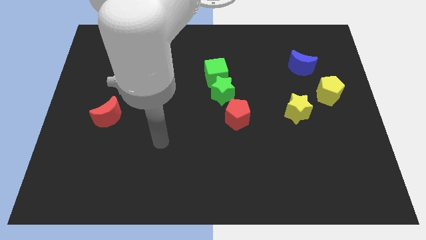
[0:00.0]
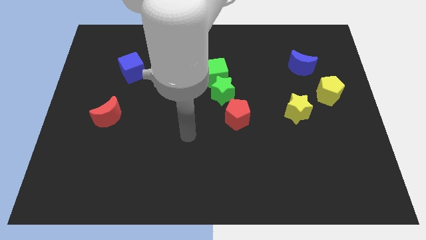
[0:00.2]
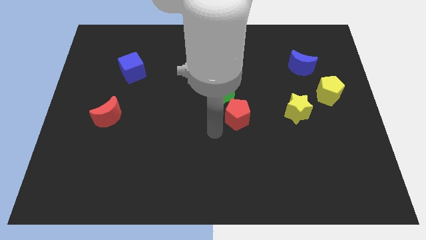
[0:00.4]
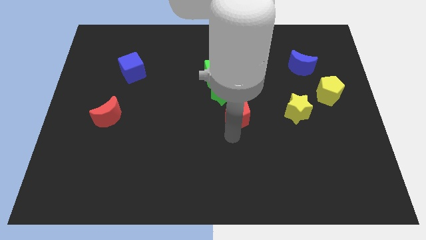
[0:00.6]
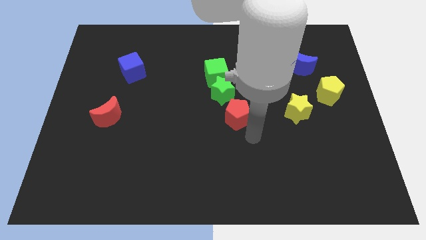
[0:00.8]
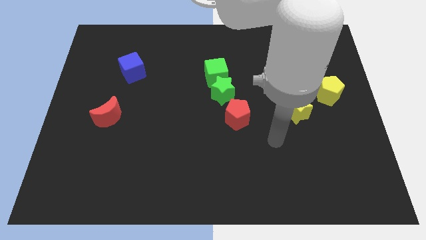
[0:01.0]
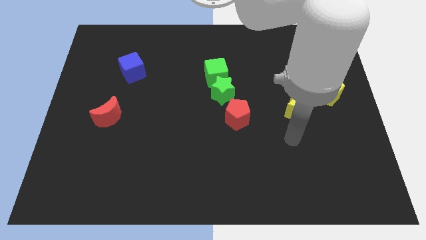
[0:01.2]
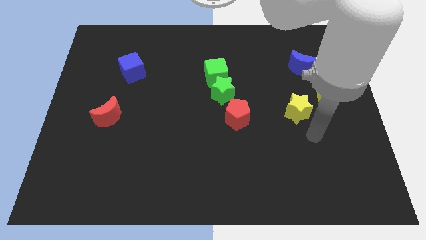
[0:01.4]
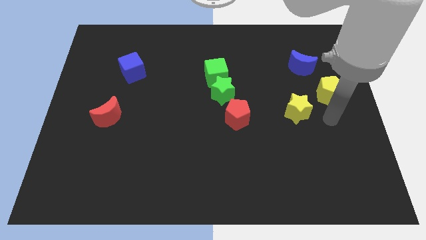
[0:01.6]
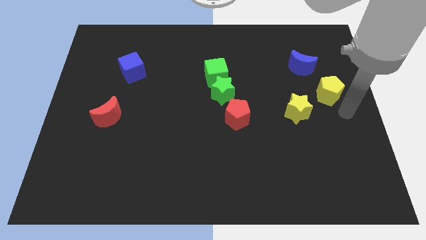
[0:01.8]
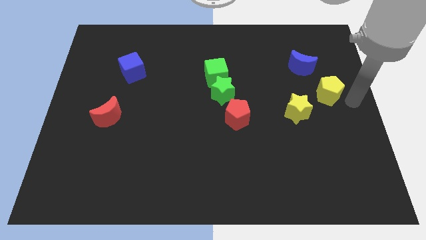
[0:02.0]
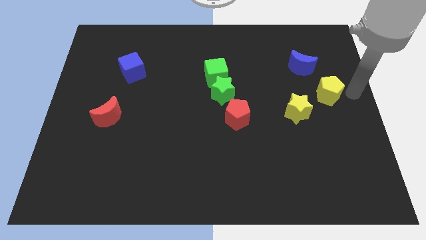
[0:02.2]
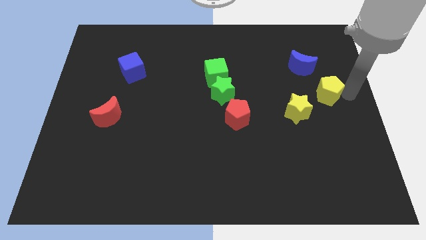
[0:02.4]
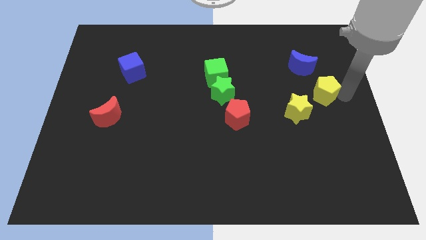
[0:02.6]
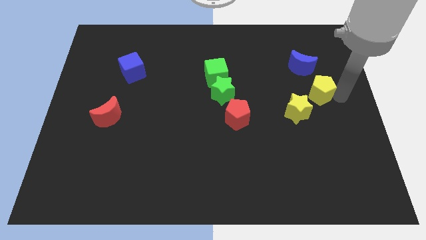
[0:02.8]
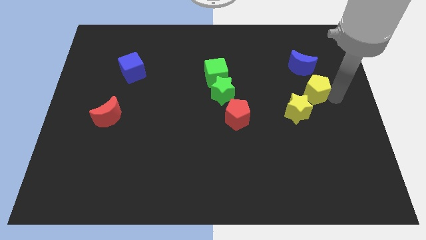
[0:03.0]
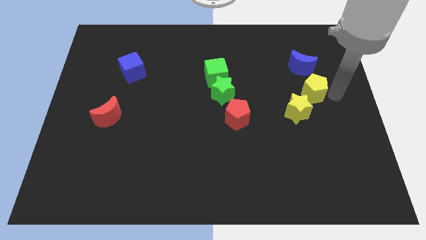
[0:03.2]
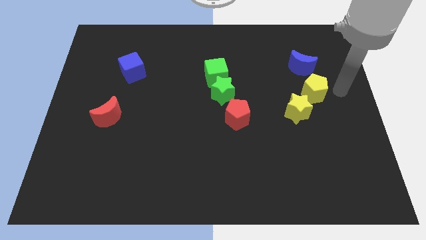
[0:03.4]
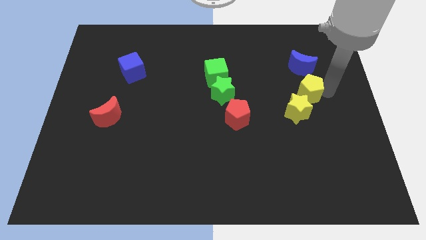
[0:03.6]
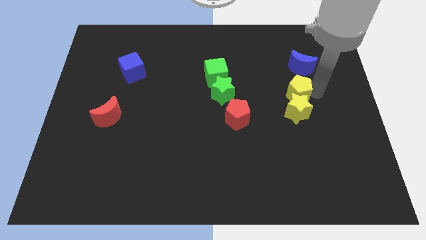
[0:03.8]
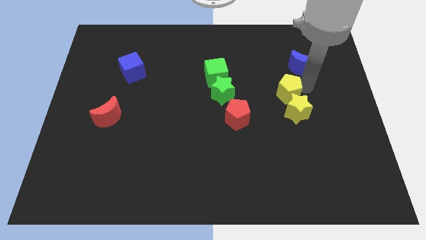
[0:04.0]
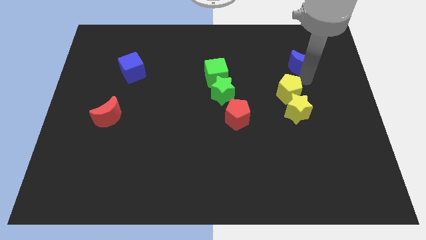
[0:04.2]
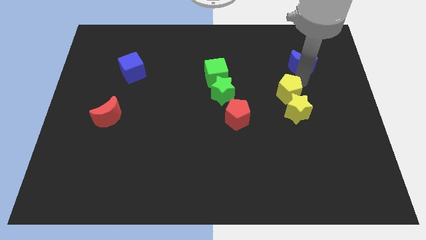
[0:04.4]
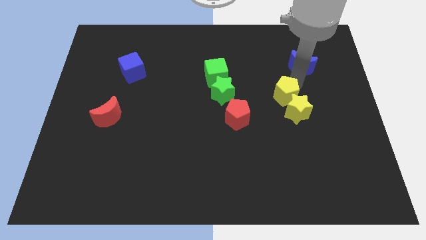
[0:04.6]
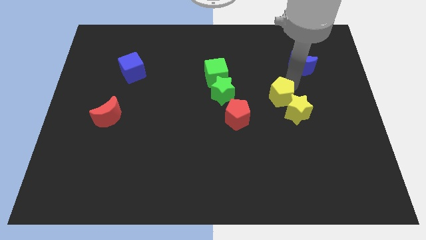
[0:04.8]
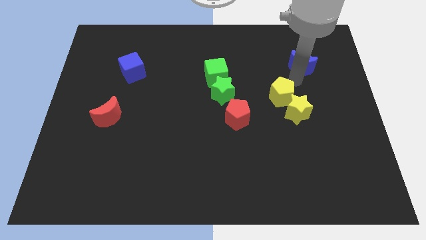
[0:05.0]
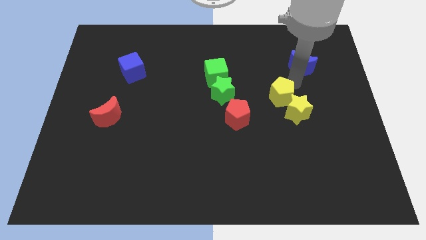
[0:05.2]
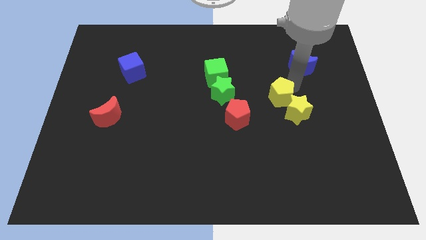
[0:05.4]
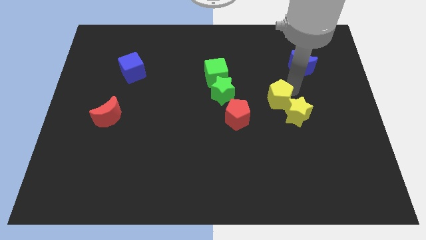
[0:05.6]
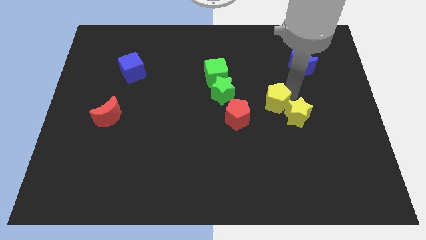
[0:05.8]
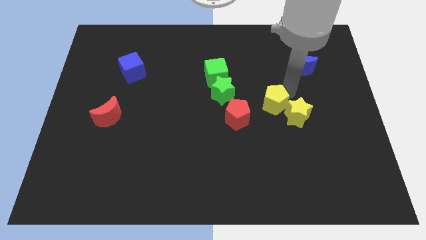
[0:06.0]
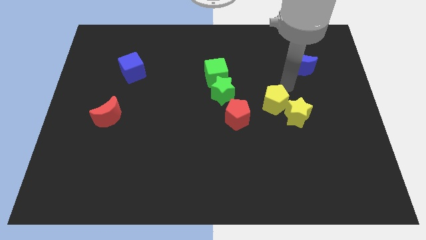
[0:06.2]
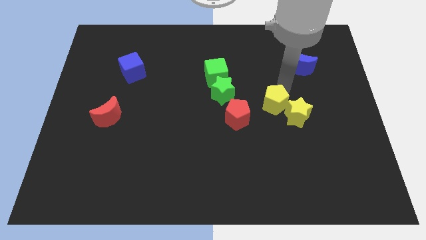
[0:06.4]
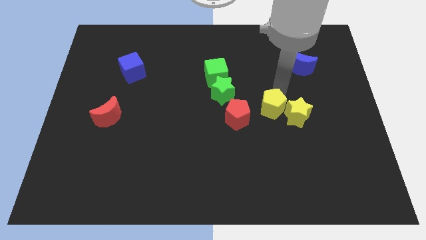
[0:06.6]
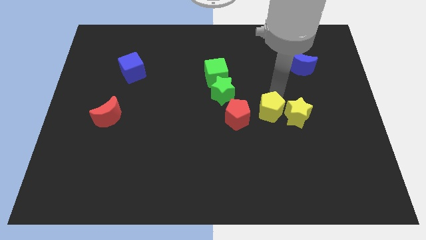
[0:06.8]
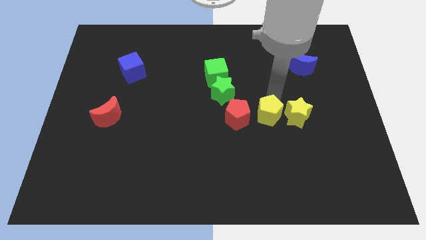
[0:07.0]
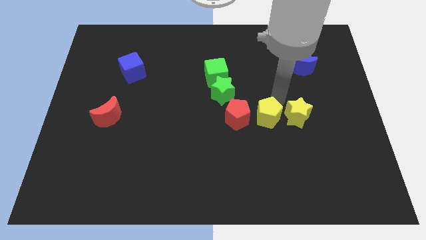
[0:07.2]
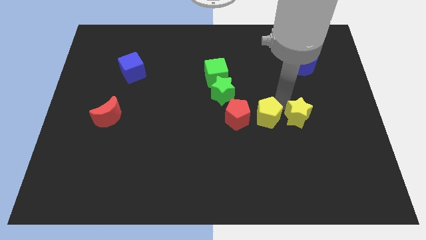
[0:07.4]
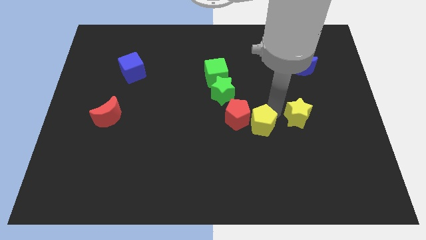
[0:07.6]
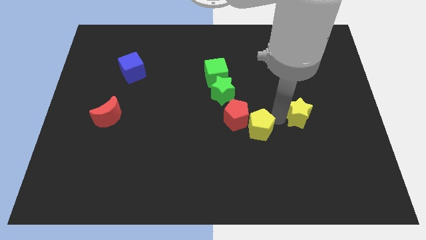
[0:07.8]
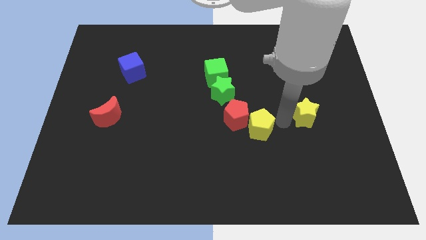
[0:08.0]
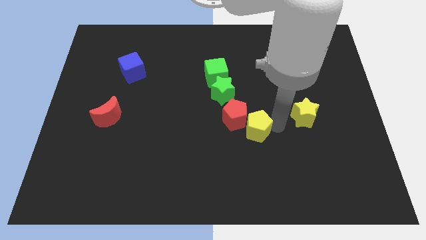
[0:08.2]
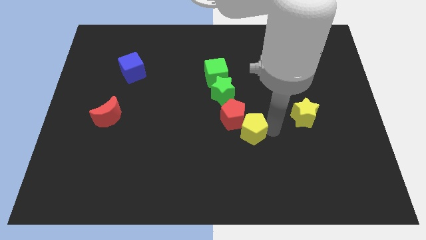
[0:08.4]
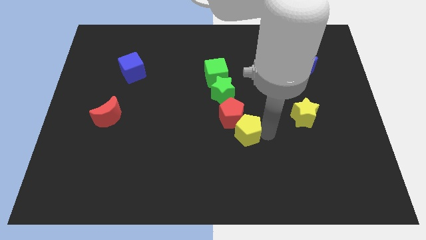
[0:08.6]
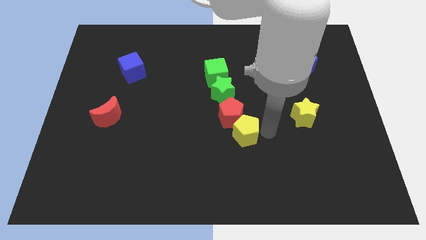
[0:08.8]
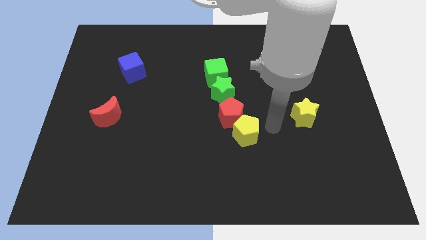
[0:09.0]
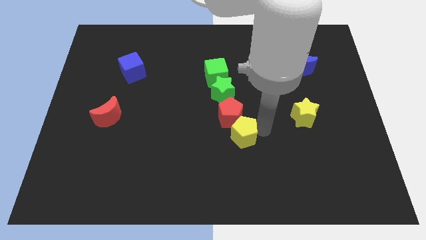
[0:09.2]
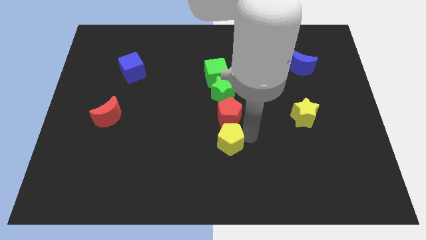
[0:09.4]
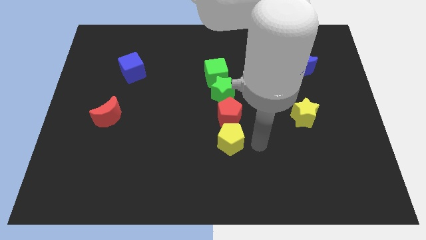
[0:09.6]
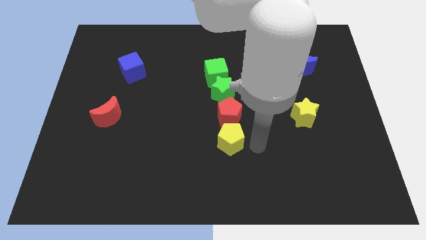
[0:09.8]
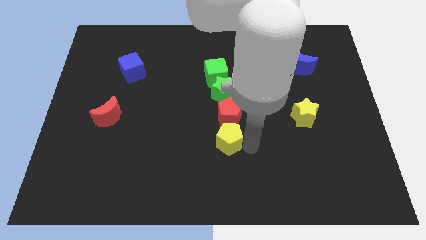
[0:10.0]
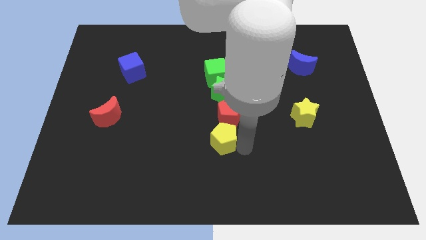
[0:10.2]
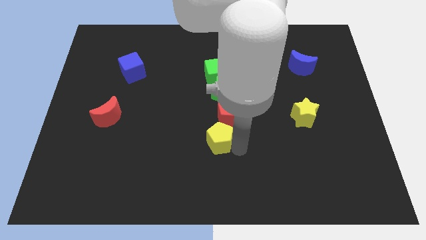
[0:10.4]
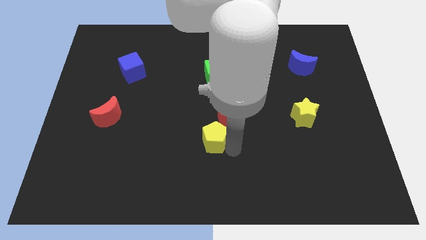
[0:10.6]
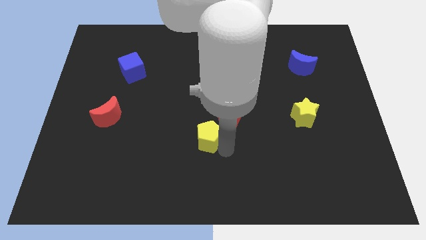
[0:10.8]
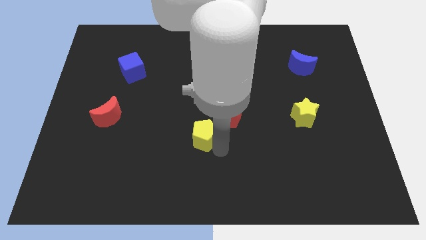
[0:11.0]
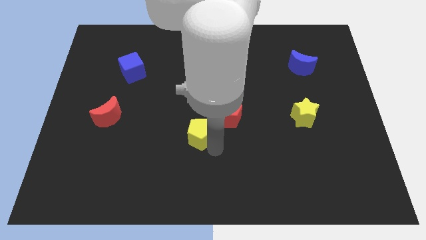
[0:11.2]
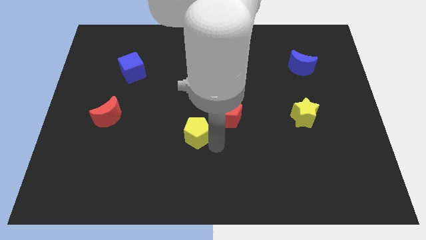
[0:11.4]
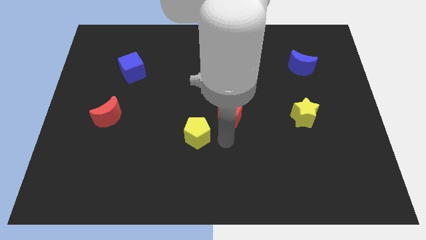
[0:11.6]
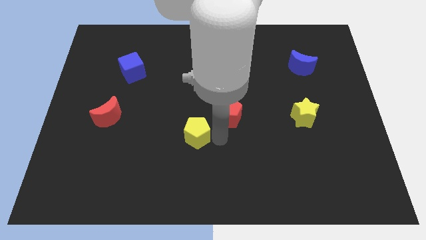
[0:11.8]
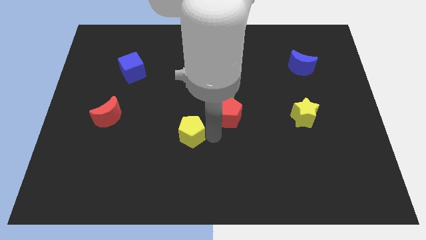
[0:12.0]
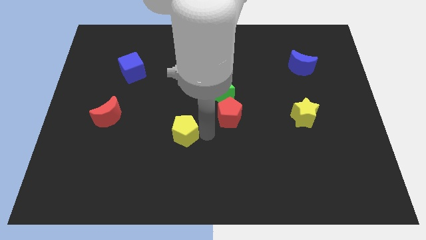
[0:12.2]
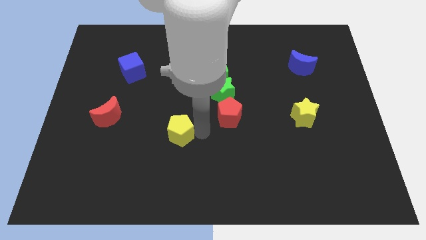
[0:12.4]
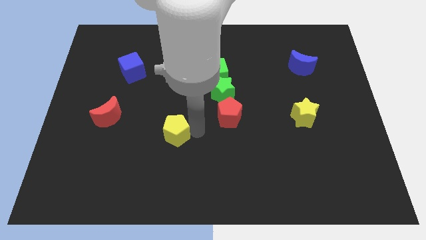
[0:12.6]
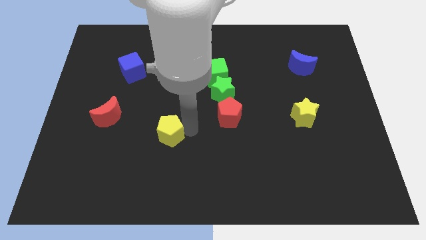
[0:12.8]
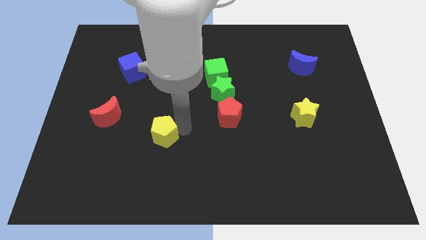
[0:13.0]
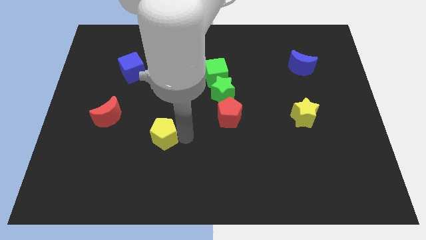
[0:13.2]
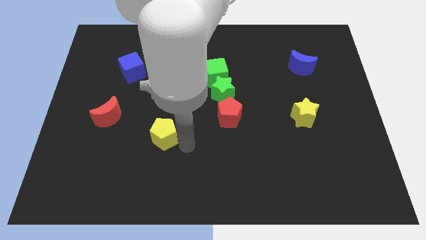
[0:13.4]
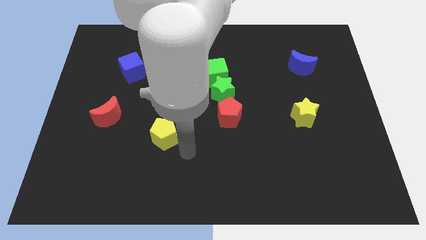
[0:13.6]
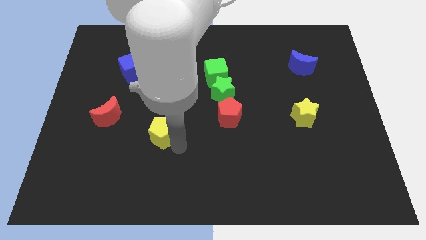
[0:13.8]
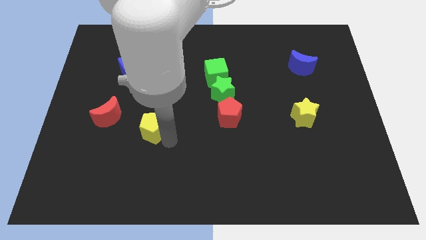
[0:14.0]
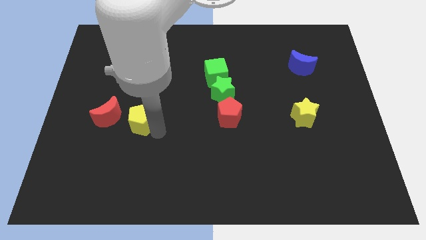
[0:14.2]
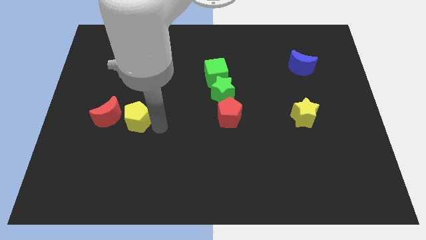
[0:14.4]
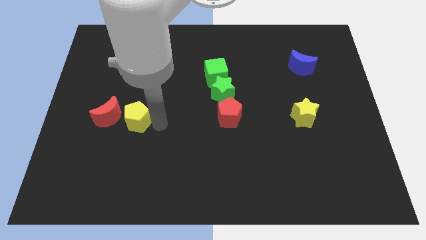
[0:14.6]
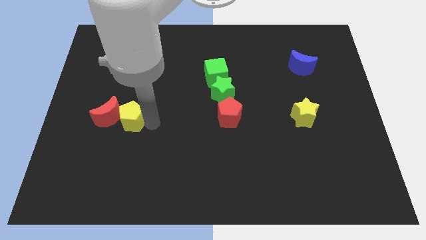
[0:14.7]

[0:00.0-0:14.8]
slide the yellow pentagon to the red moon
